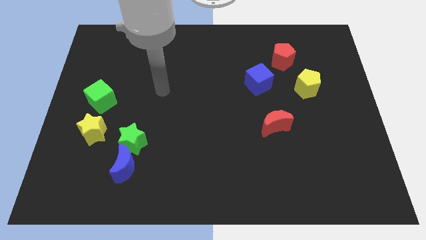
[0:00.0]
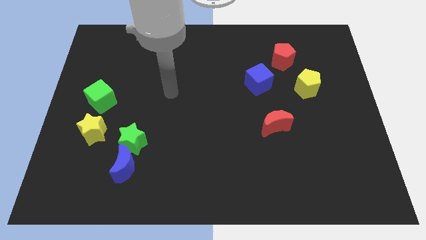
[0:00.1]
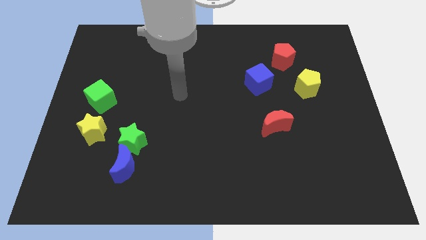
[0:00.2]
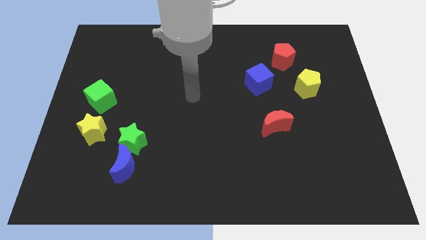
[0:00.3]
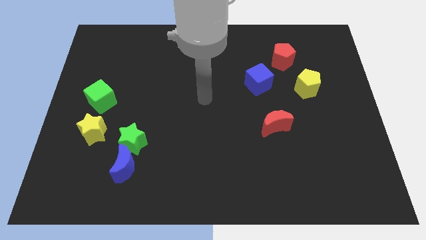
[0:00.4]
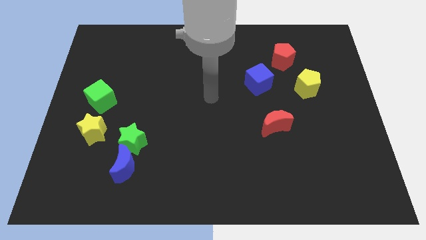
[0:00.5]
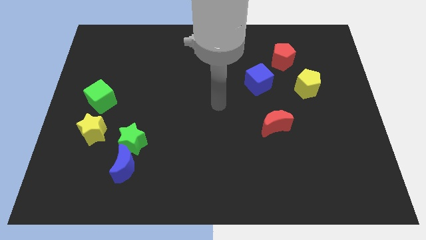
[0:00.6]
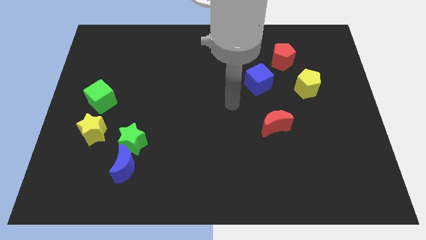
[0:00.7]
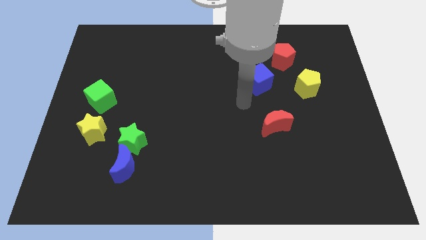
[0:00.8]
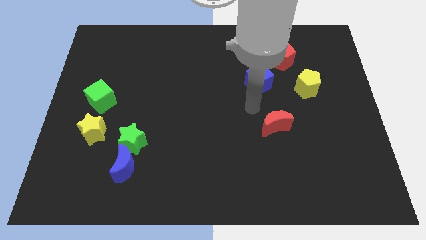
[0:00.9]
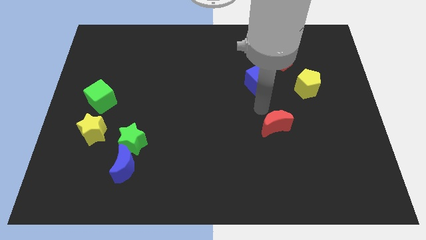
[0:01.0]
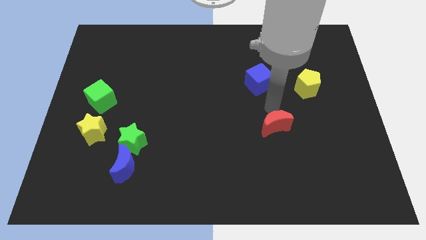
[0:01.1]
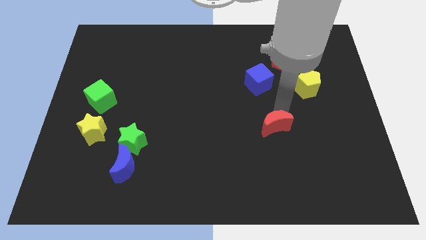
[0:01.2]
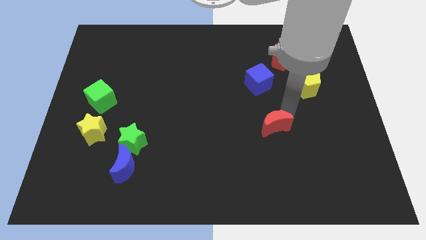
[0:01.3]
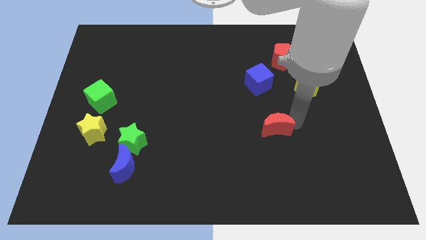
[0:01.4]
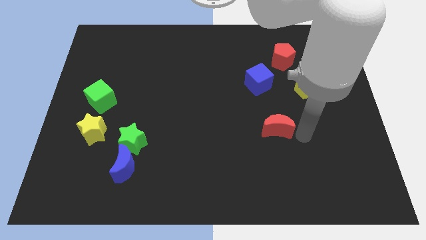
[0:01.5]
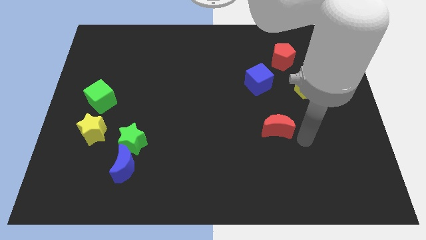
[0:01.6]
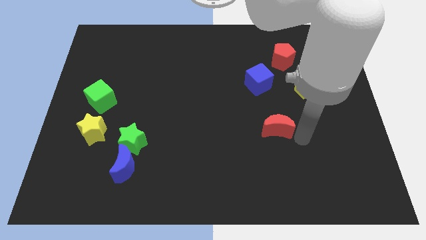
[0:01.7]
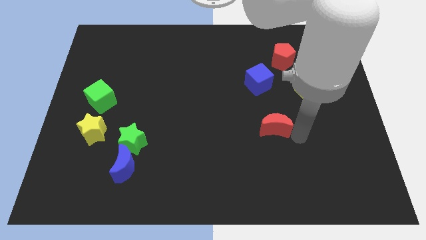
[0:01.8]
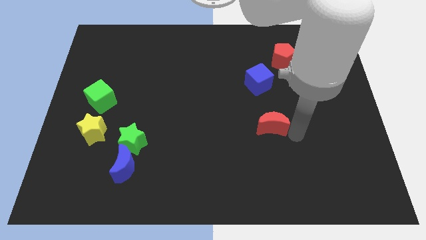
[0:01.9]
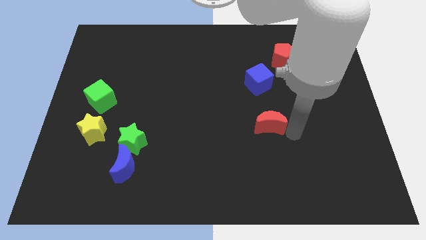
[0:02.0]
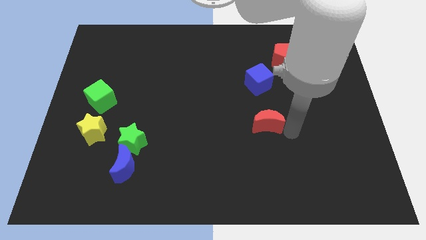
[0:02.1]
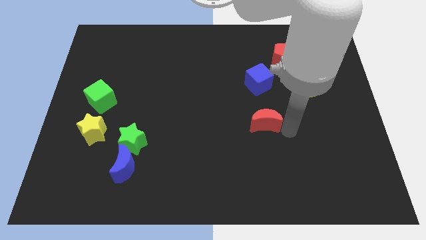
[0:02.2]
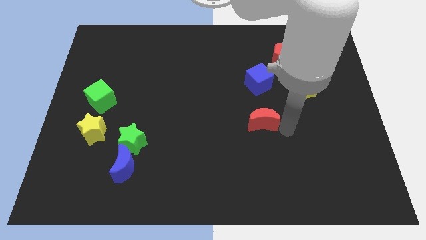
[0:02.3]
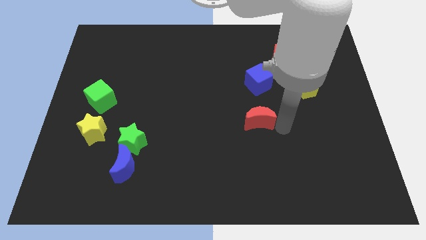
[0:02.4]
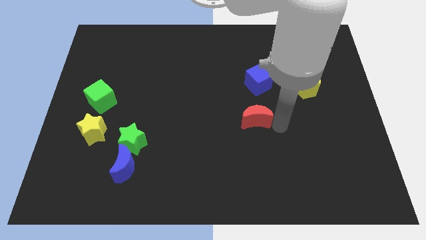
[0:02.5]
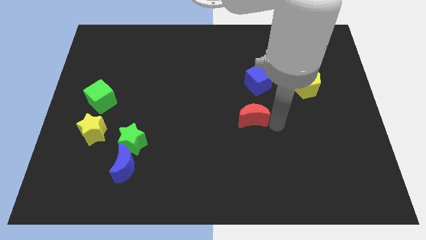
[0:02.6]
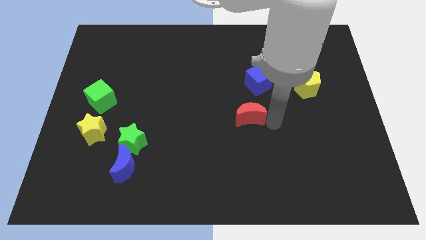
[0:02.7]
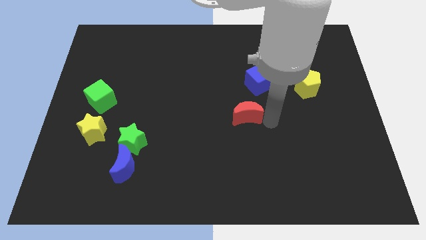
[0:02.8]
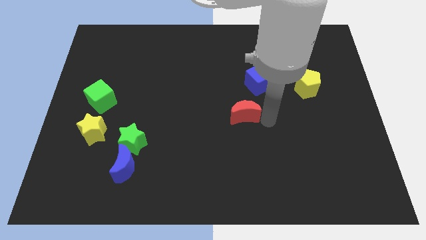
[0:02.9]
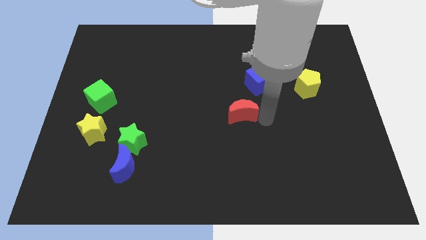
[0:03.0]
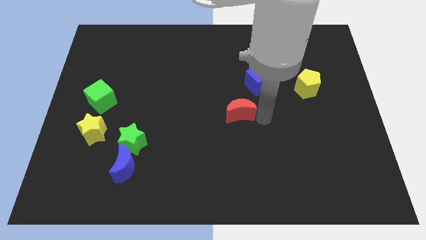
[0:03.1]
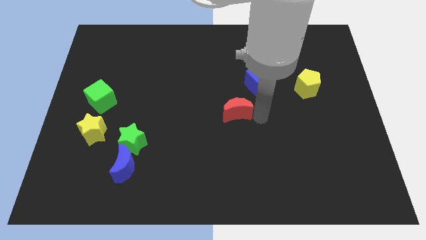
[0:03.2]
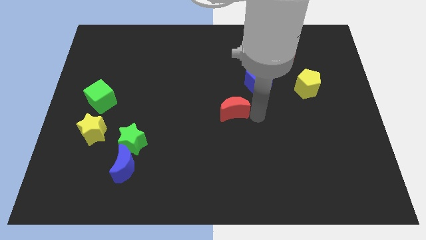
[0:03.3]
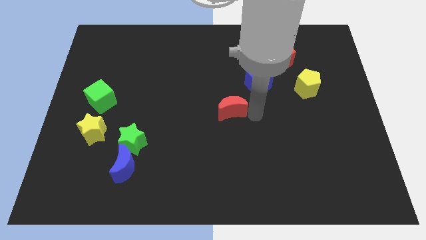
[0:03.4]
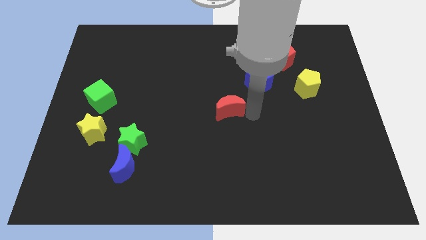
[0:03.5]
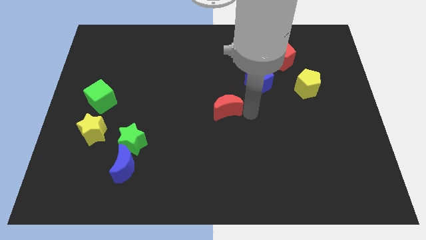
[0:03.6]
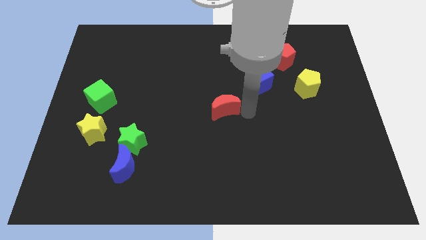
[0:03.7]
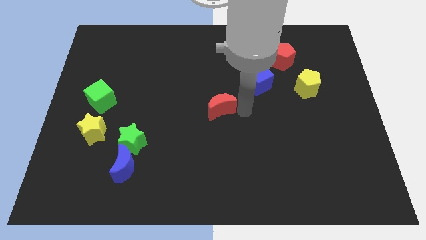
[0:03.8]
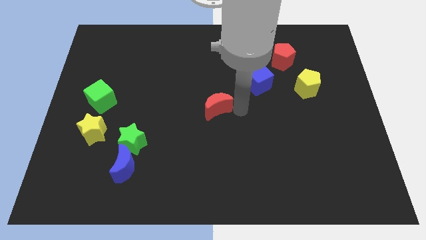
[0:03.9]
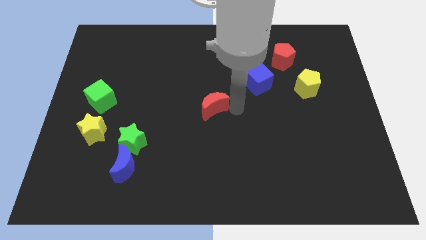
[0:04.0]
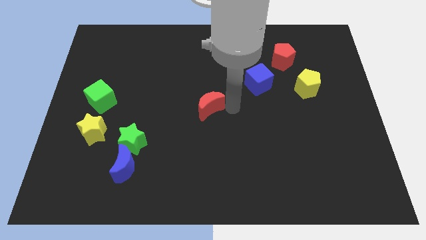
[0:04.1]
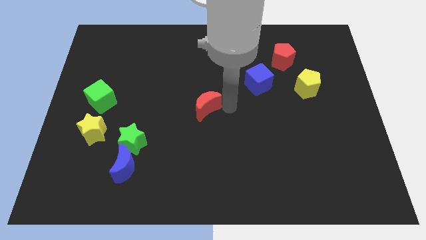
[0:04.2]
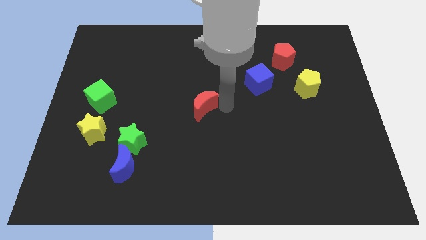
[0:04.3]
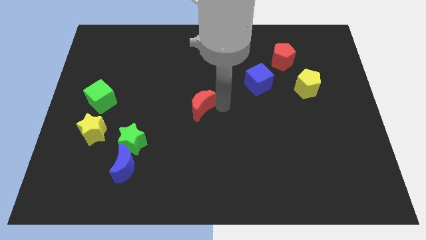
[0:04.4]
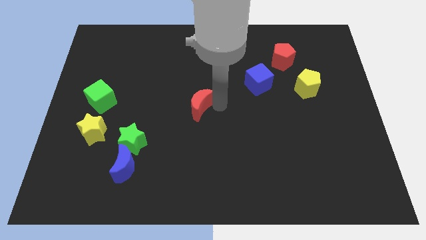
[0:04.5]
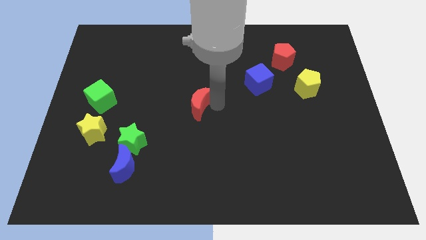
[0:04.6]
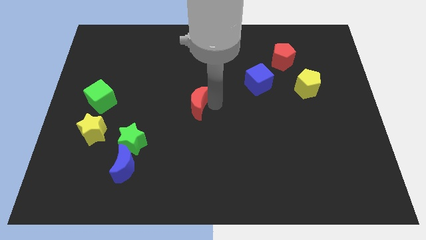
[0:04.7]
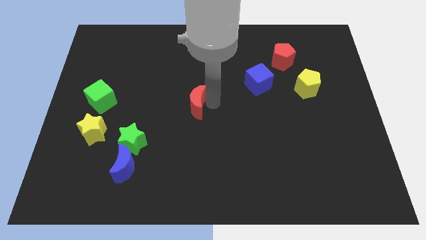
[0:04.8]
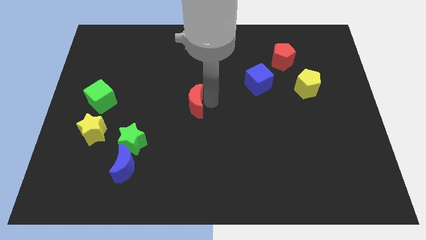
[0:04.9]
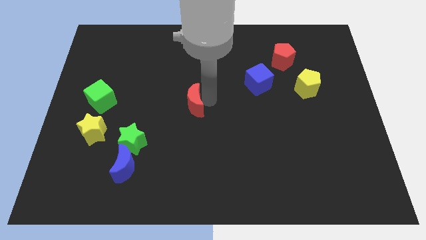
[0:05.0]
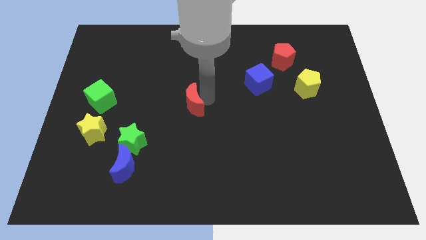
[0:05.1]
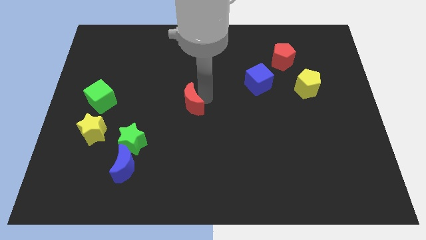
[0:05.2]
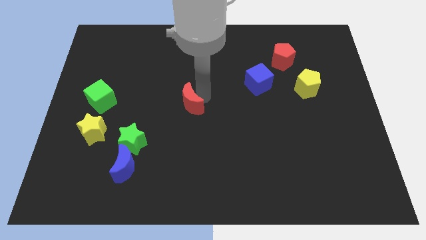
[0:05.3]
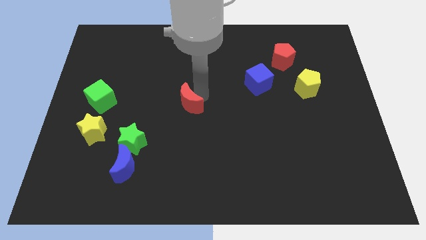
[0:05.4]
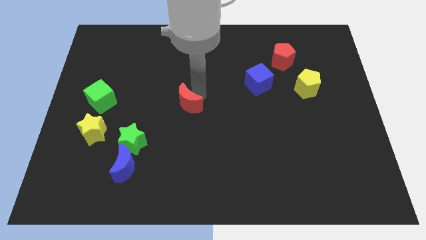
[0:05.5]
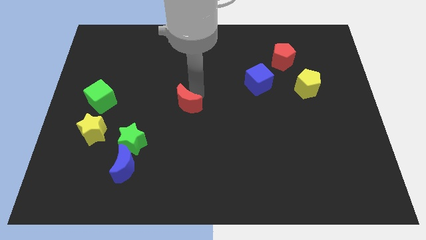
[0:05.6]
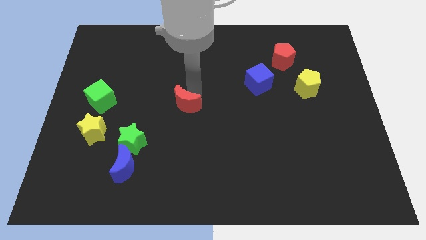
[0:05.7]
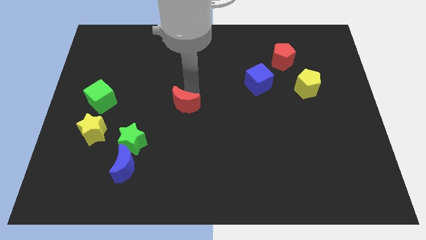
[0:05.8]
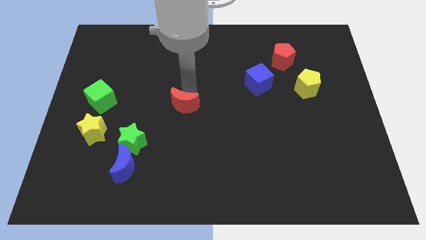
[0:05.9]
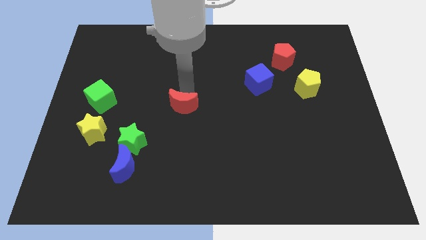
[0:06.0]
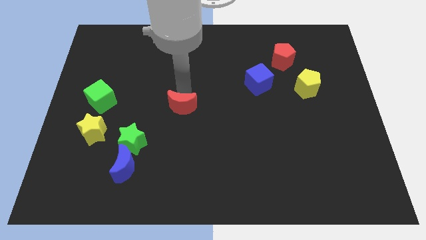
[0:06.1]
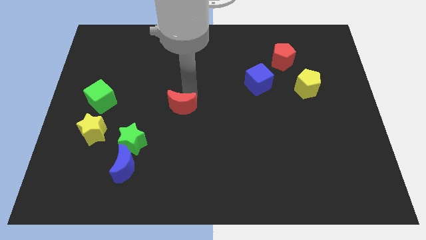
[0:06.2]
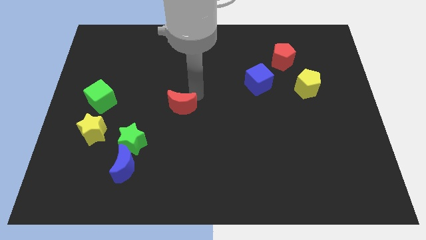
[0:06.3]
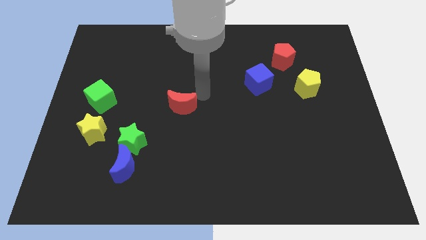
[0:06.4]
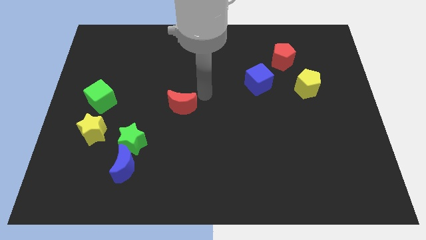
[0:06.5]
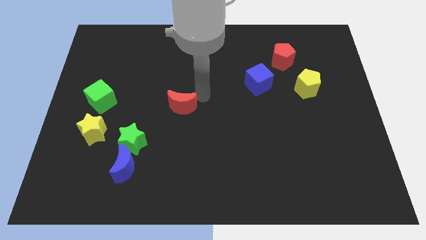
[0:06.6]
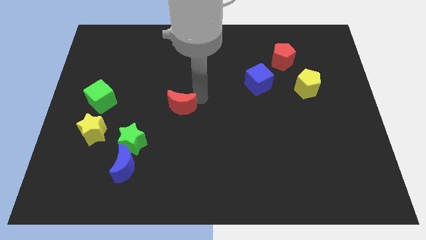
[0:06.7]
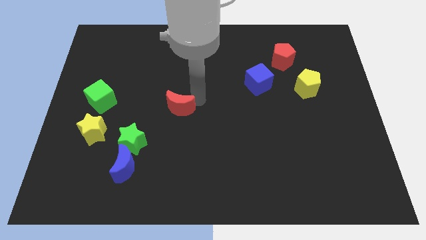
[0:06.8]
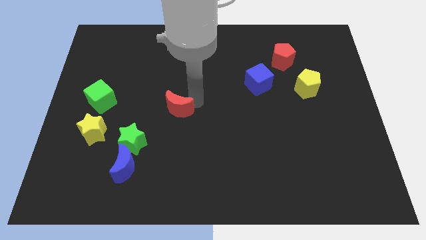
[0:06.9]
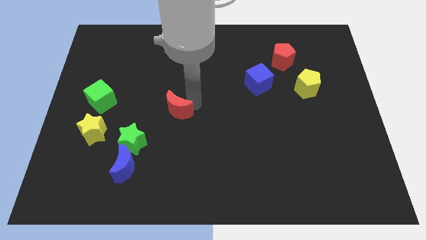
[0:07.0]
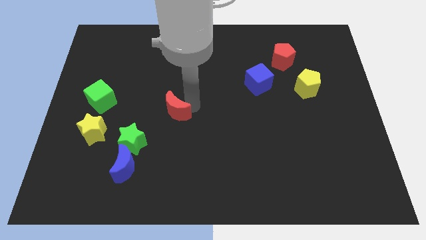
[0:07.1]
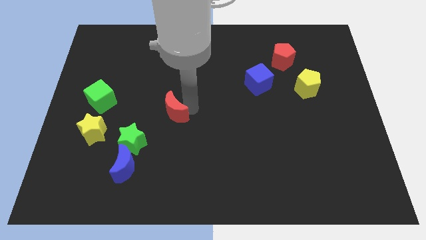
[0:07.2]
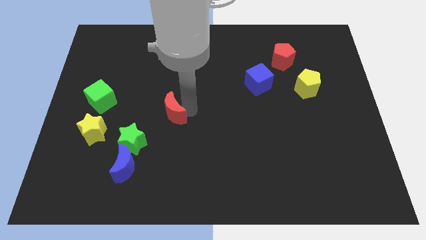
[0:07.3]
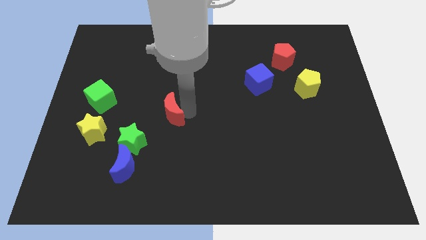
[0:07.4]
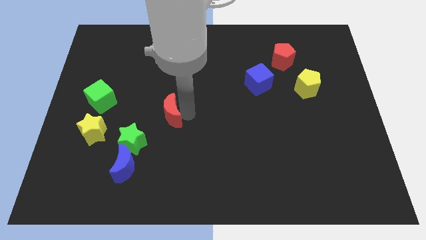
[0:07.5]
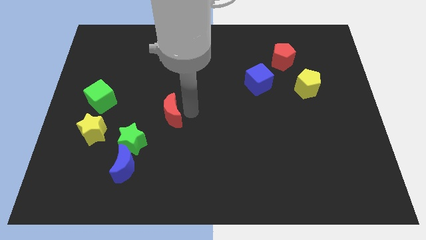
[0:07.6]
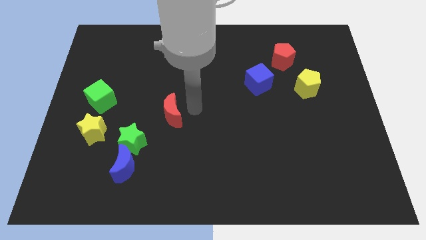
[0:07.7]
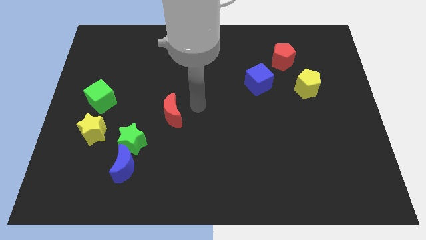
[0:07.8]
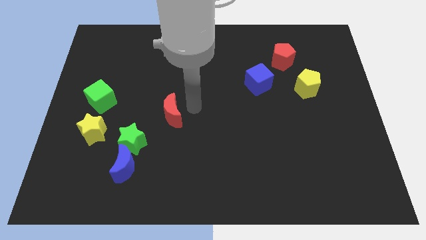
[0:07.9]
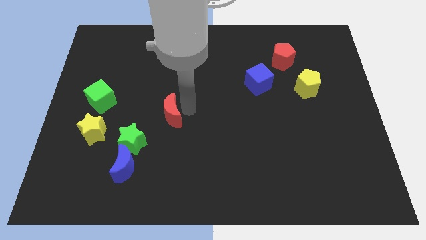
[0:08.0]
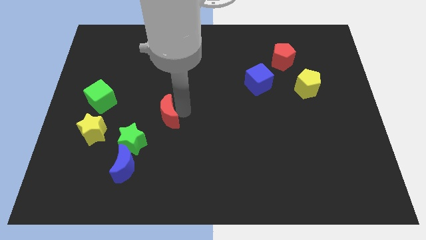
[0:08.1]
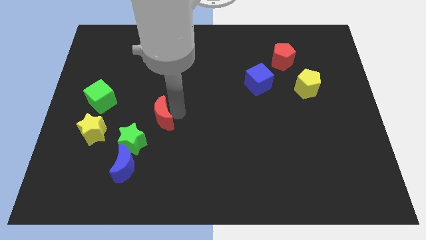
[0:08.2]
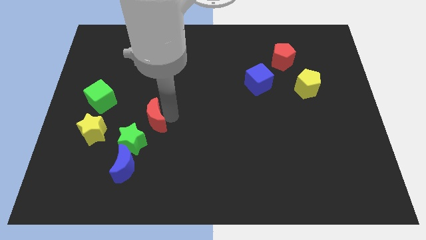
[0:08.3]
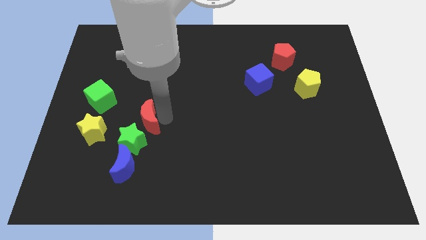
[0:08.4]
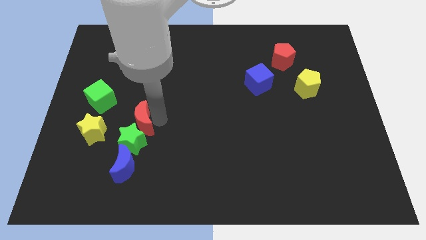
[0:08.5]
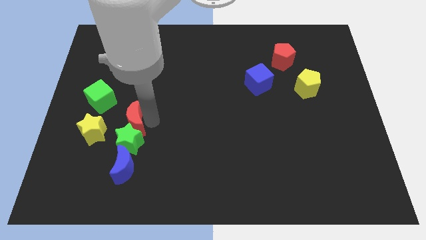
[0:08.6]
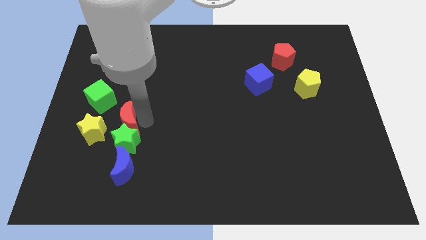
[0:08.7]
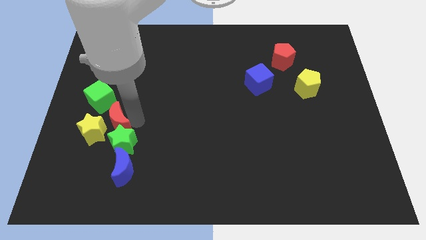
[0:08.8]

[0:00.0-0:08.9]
slide the red moon towards the yellow star
